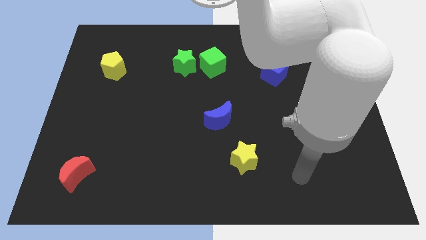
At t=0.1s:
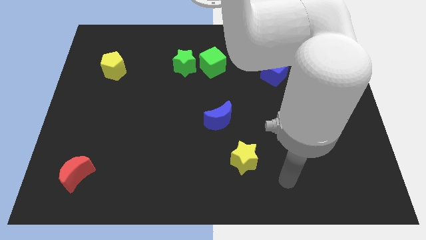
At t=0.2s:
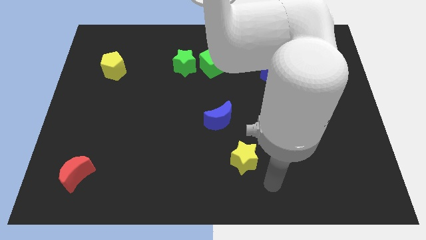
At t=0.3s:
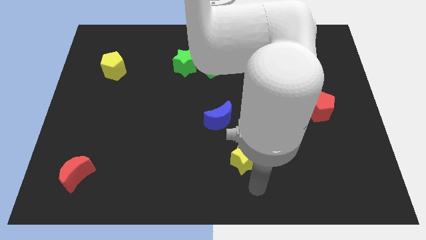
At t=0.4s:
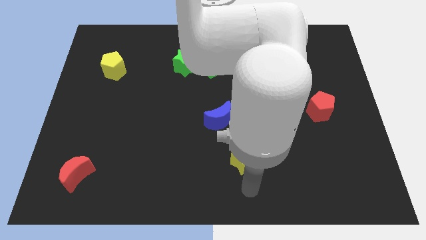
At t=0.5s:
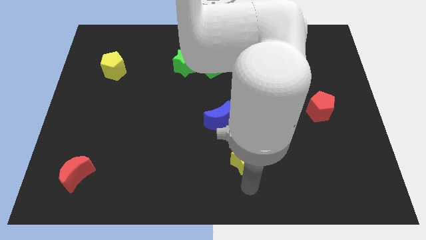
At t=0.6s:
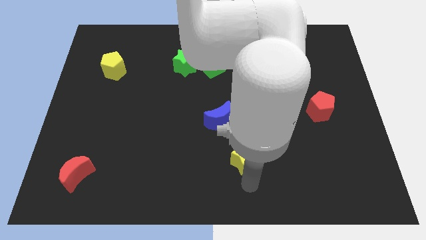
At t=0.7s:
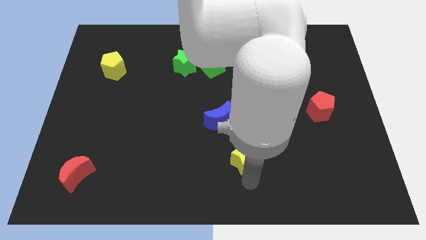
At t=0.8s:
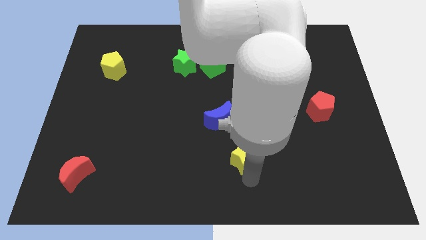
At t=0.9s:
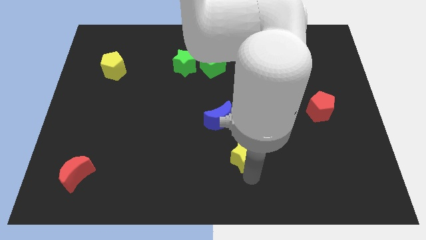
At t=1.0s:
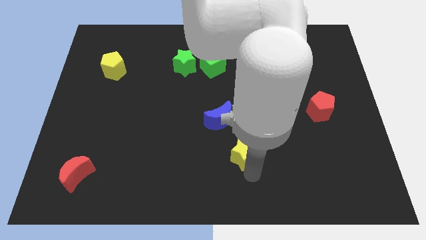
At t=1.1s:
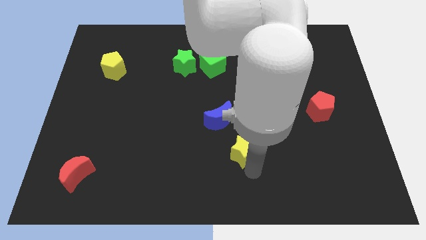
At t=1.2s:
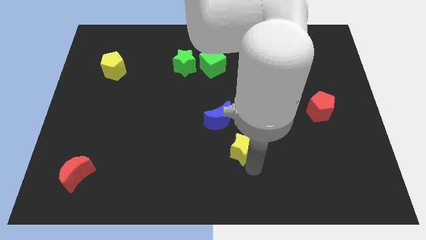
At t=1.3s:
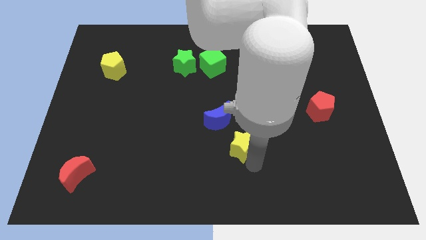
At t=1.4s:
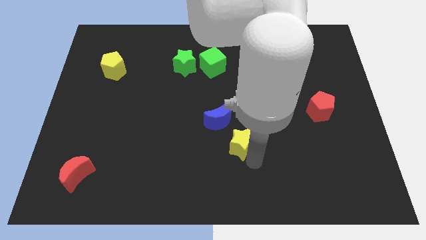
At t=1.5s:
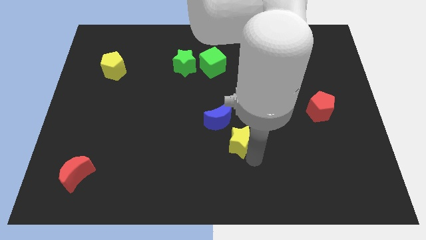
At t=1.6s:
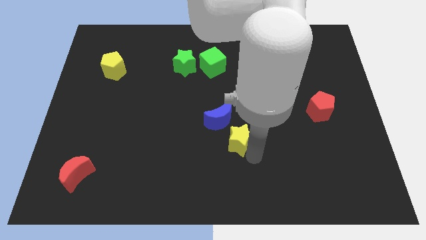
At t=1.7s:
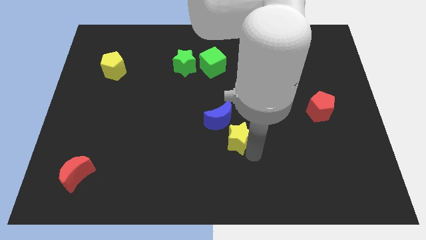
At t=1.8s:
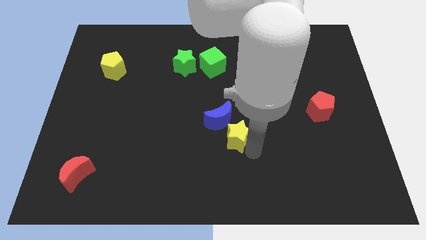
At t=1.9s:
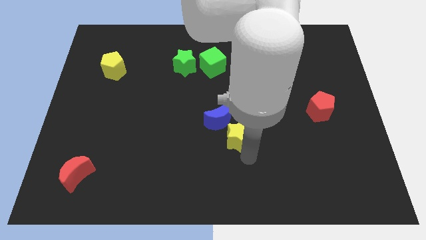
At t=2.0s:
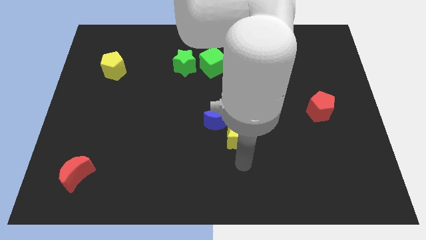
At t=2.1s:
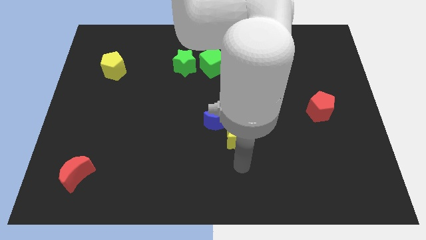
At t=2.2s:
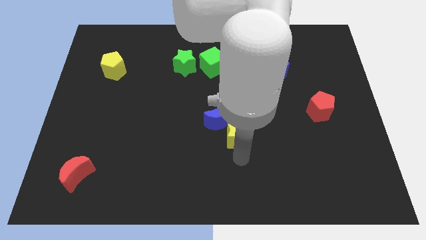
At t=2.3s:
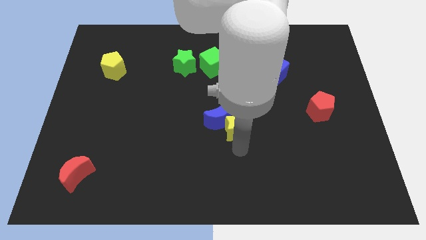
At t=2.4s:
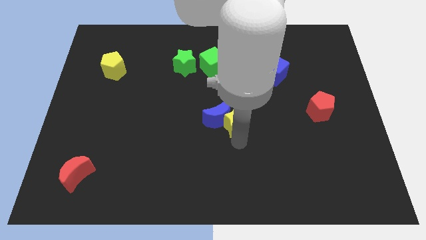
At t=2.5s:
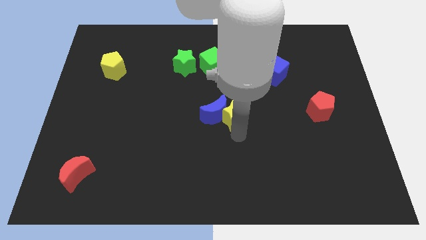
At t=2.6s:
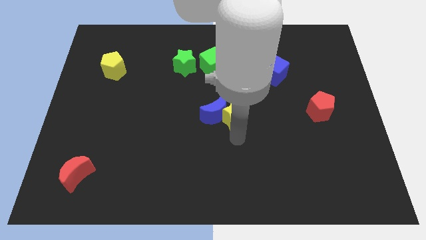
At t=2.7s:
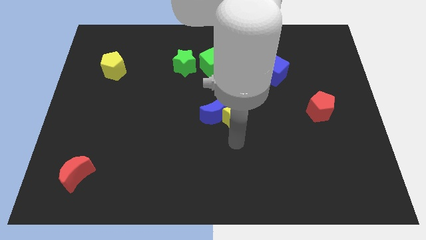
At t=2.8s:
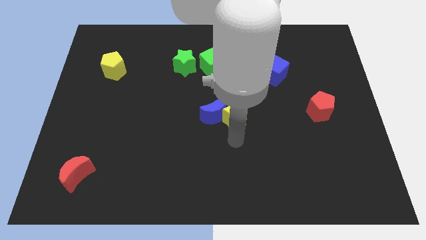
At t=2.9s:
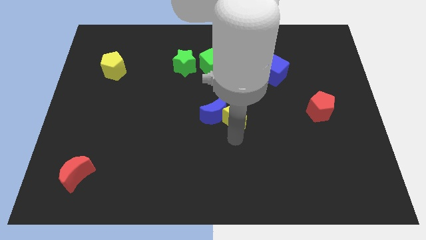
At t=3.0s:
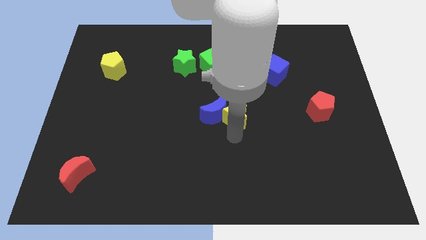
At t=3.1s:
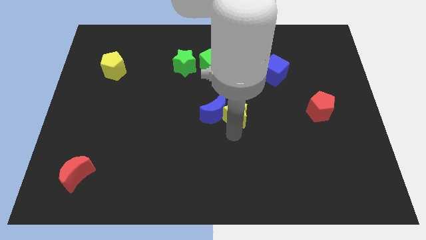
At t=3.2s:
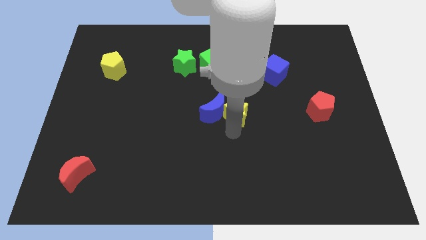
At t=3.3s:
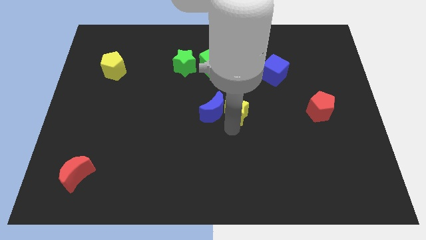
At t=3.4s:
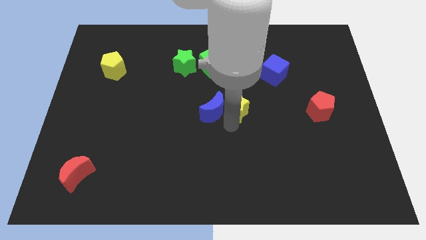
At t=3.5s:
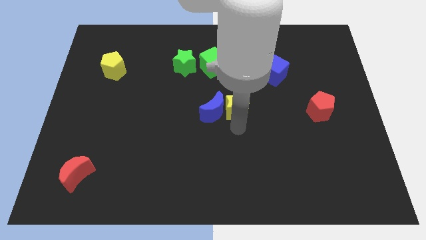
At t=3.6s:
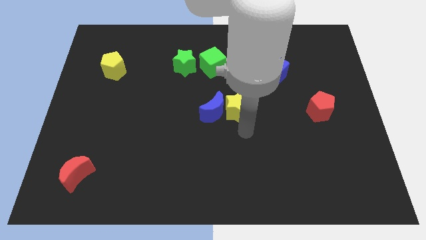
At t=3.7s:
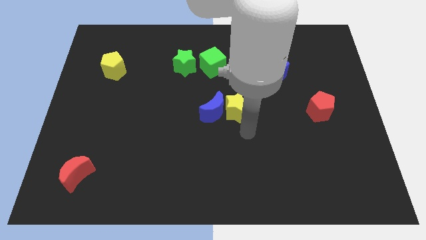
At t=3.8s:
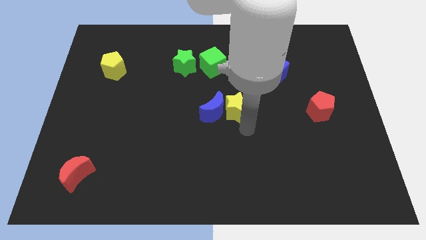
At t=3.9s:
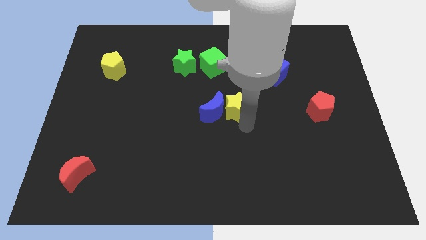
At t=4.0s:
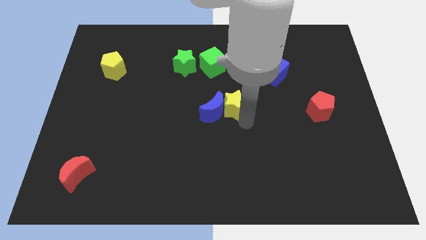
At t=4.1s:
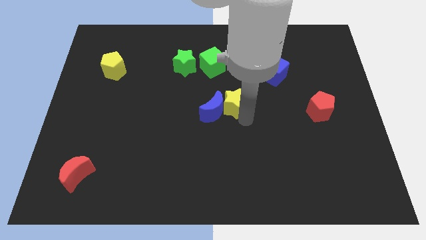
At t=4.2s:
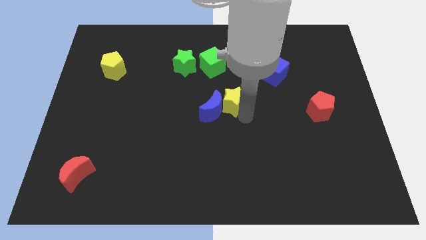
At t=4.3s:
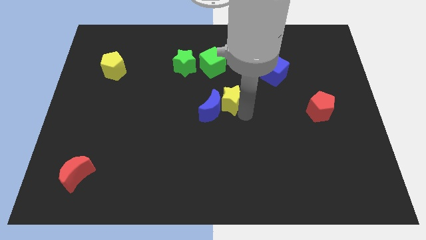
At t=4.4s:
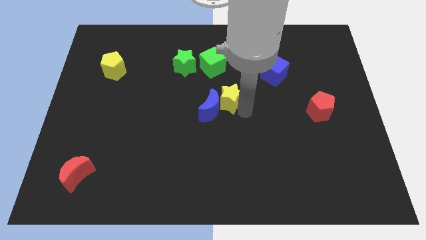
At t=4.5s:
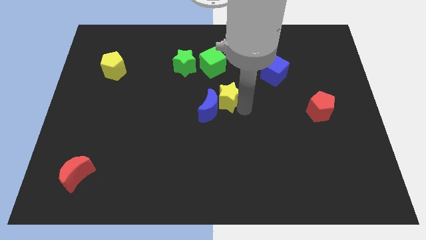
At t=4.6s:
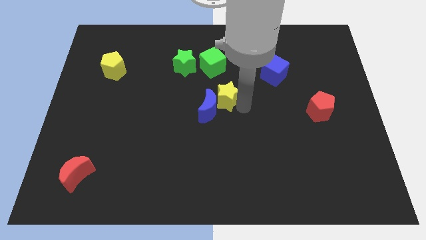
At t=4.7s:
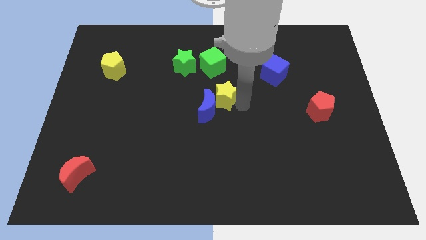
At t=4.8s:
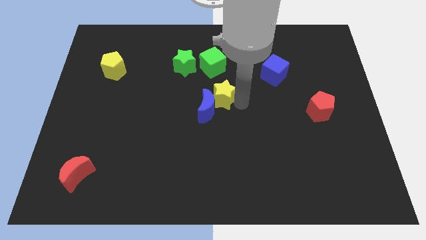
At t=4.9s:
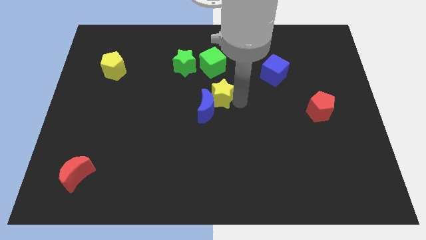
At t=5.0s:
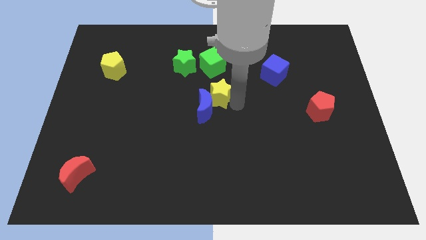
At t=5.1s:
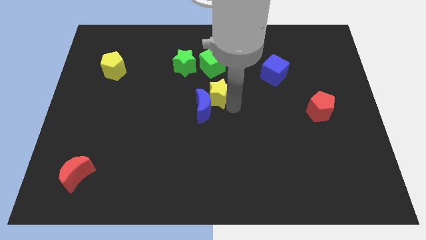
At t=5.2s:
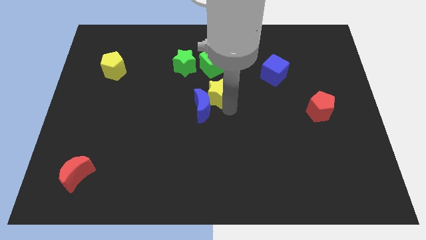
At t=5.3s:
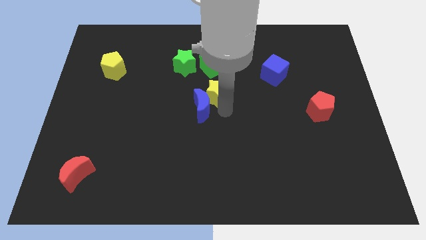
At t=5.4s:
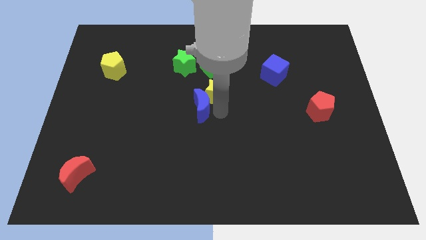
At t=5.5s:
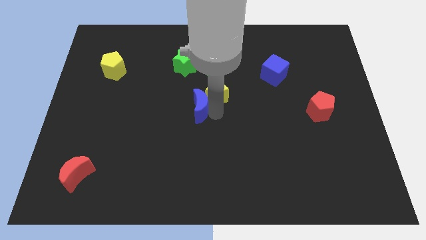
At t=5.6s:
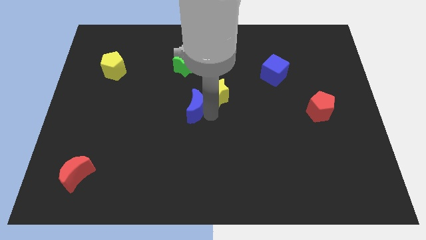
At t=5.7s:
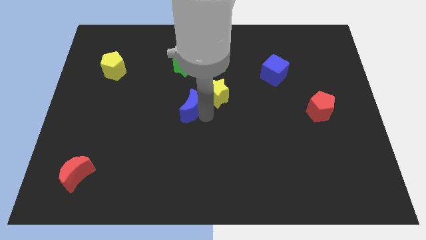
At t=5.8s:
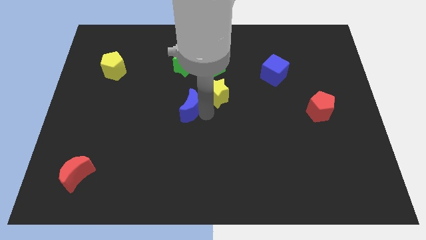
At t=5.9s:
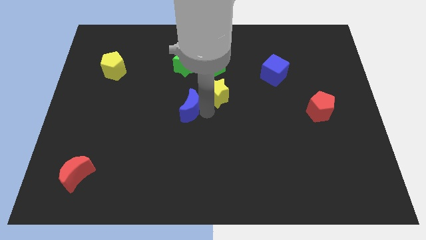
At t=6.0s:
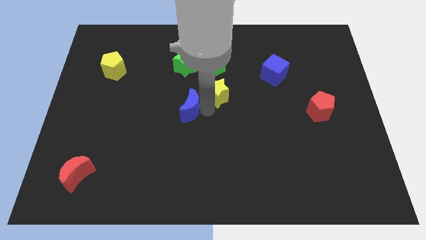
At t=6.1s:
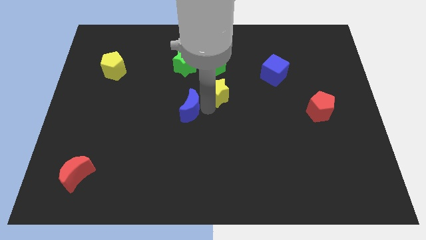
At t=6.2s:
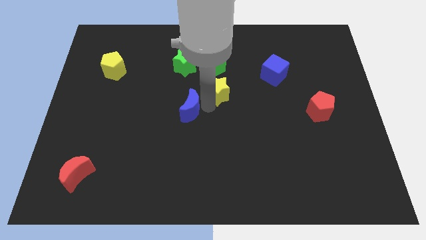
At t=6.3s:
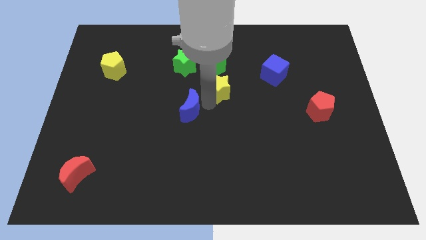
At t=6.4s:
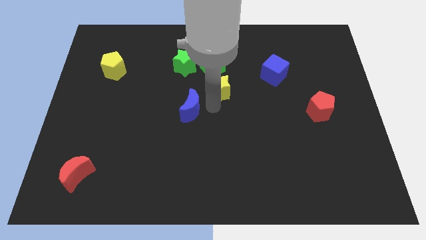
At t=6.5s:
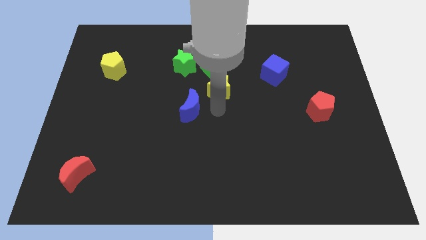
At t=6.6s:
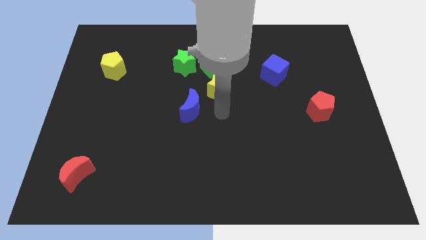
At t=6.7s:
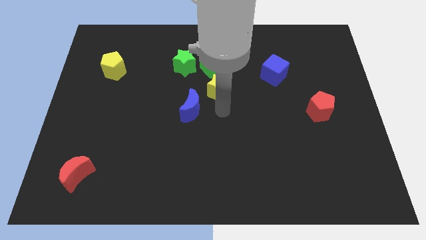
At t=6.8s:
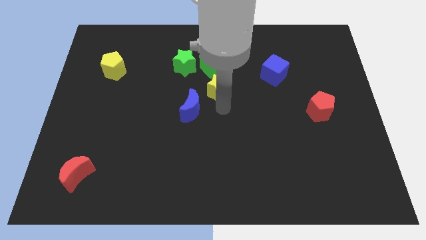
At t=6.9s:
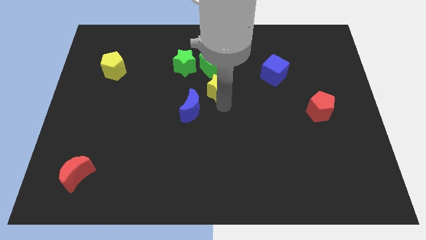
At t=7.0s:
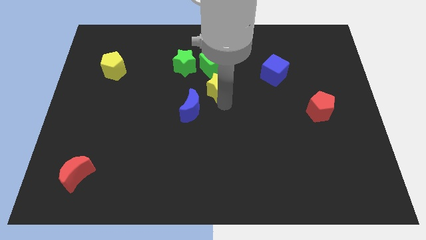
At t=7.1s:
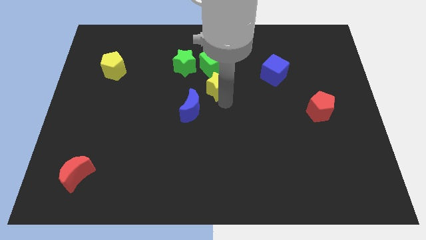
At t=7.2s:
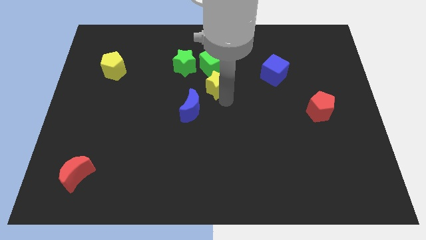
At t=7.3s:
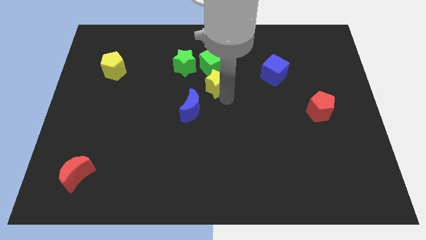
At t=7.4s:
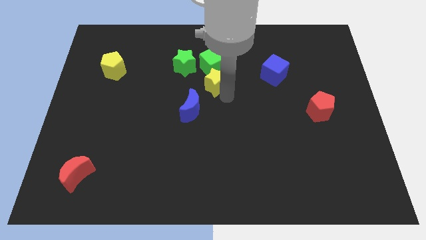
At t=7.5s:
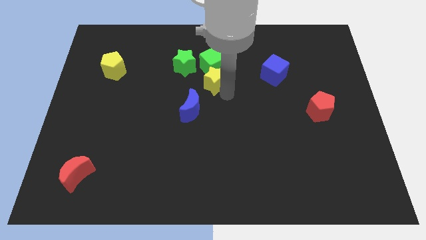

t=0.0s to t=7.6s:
put the yellow star next to the green cube
